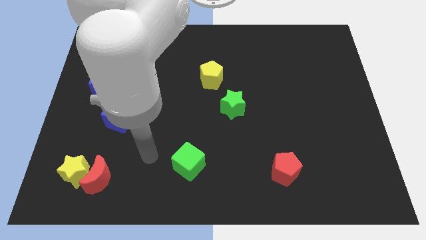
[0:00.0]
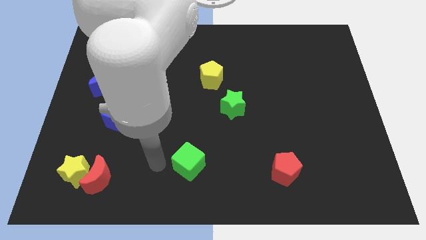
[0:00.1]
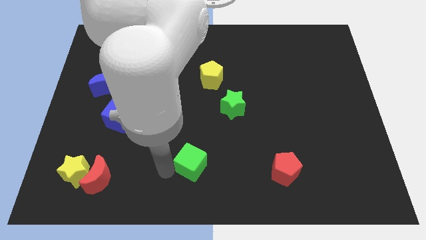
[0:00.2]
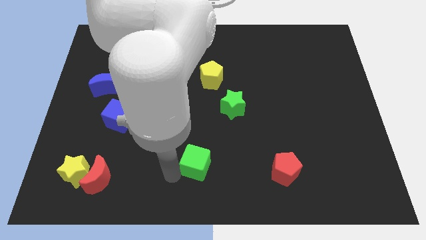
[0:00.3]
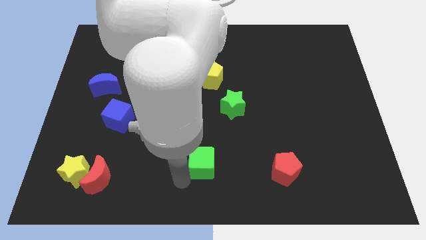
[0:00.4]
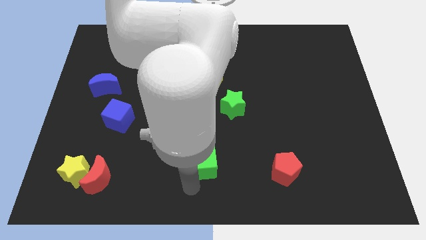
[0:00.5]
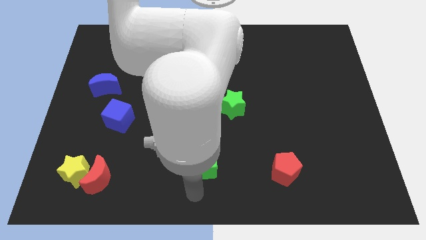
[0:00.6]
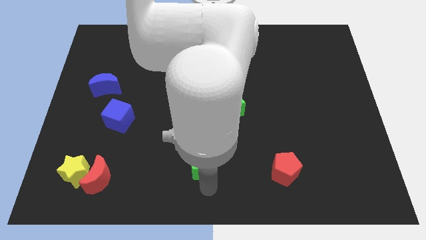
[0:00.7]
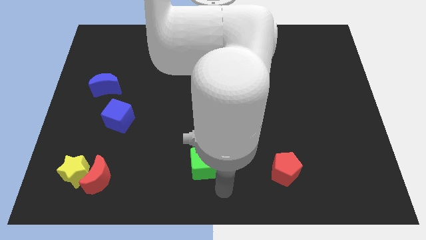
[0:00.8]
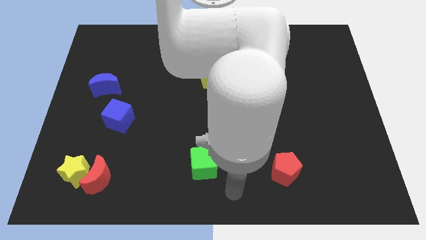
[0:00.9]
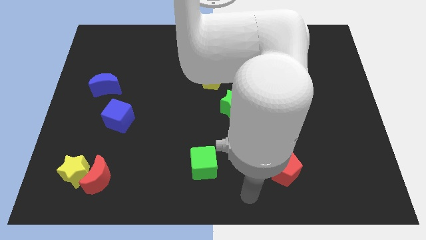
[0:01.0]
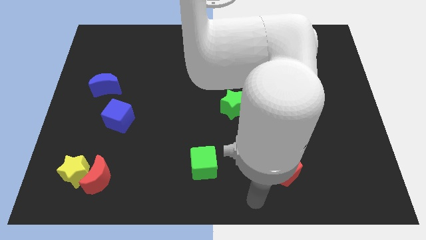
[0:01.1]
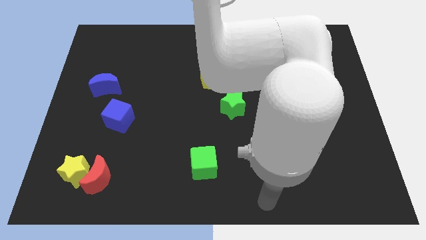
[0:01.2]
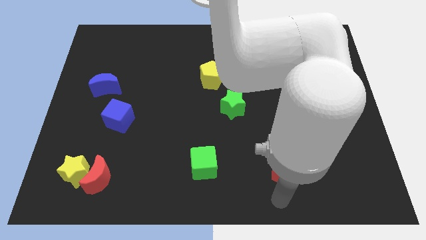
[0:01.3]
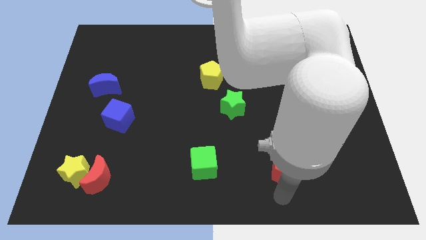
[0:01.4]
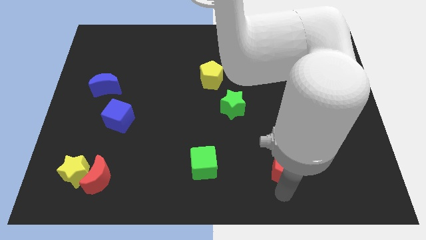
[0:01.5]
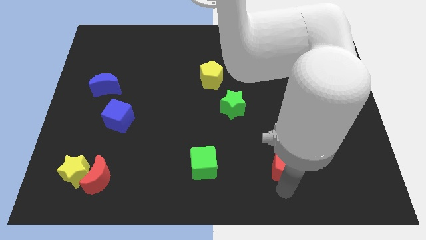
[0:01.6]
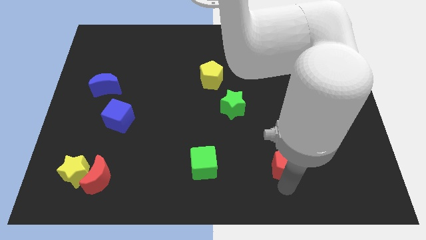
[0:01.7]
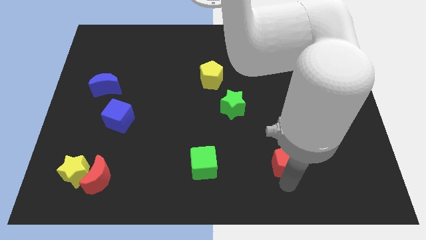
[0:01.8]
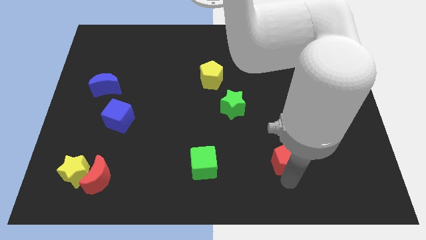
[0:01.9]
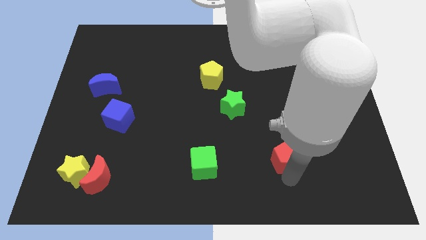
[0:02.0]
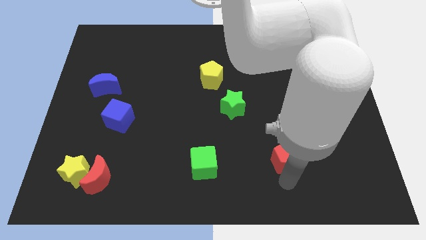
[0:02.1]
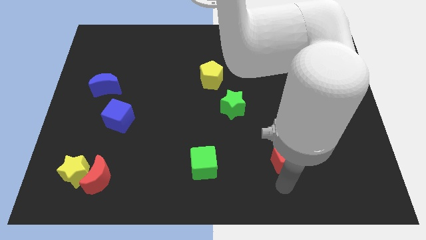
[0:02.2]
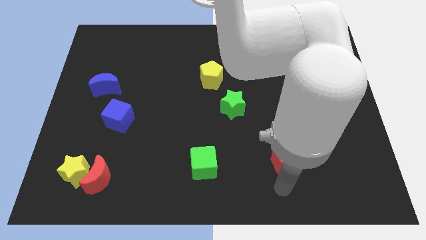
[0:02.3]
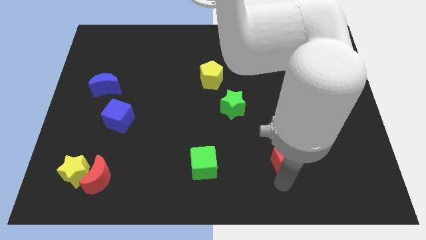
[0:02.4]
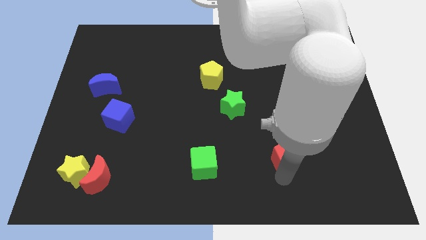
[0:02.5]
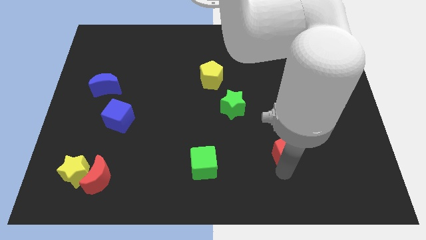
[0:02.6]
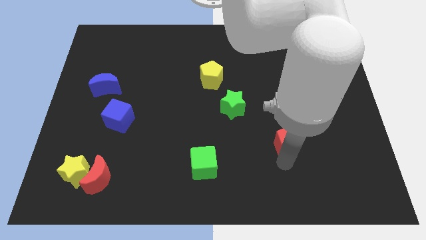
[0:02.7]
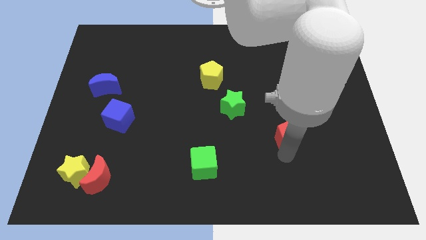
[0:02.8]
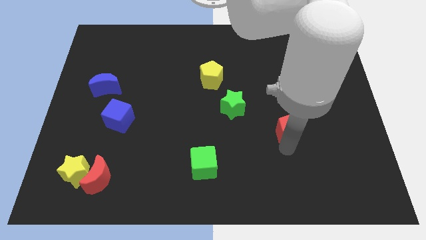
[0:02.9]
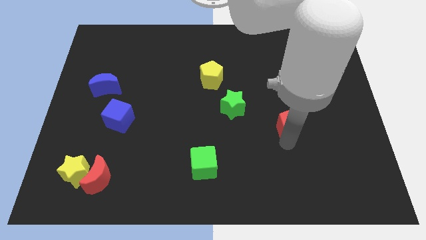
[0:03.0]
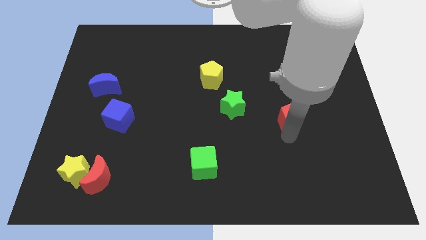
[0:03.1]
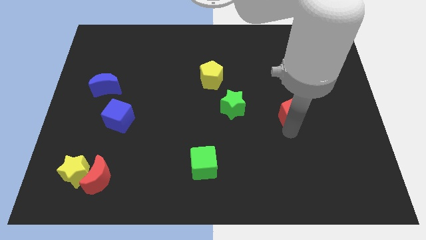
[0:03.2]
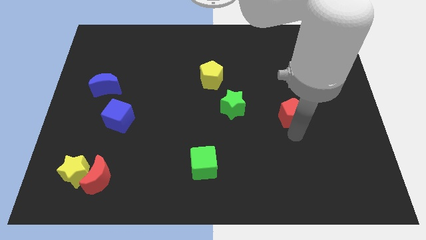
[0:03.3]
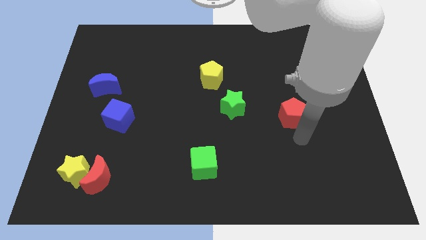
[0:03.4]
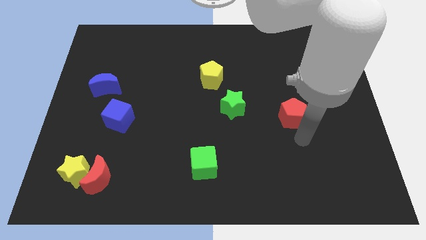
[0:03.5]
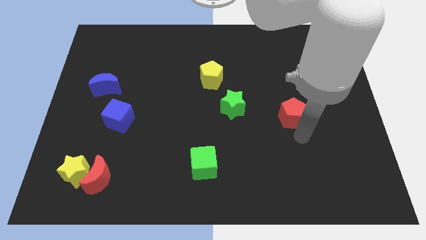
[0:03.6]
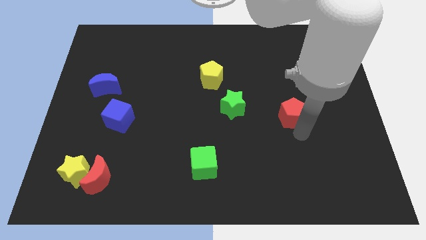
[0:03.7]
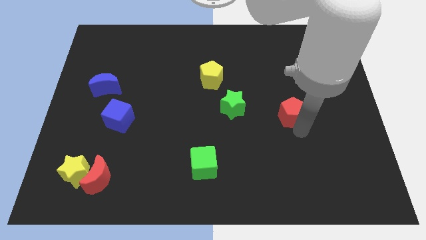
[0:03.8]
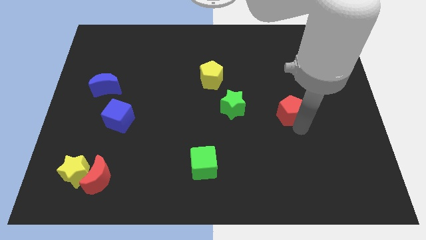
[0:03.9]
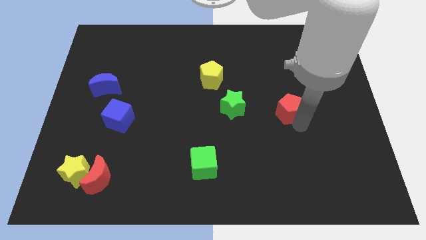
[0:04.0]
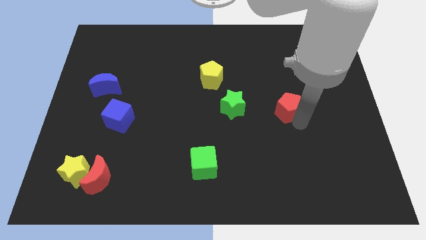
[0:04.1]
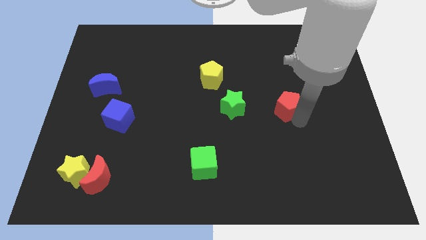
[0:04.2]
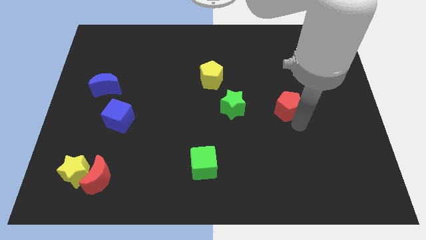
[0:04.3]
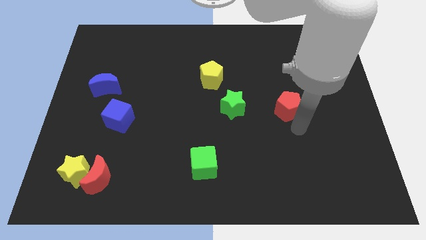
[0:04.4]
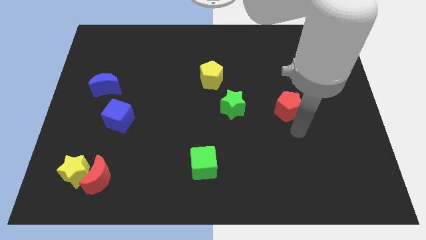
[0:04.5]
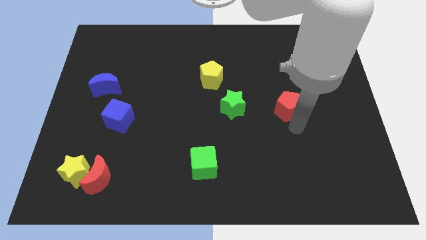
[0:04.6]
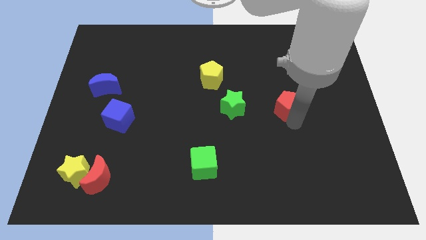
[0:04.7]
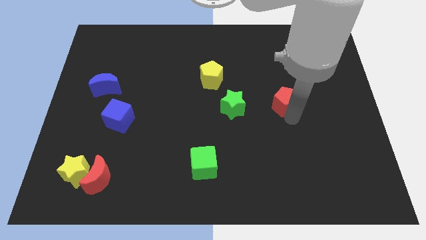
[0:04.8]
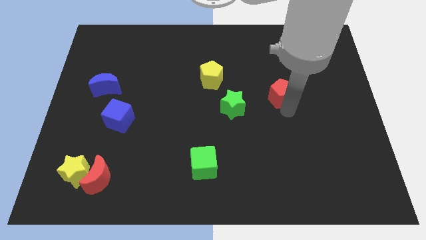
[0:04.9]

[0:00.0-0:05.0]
push the red pentagon upwards

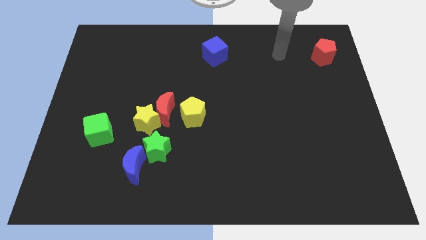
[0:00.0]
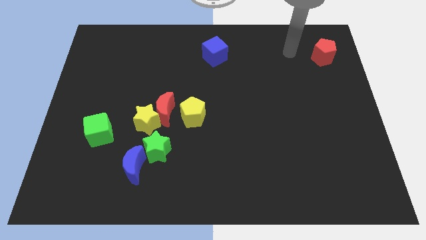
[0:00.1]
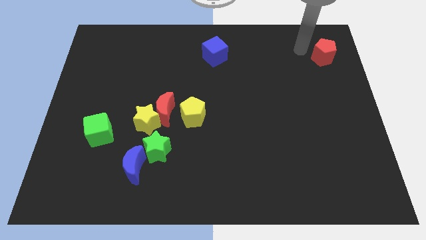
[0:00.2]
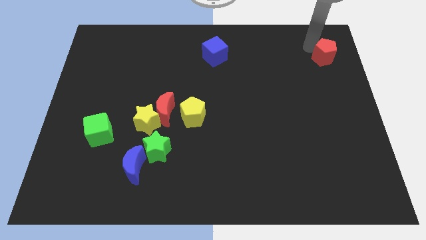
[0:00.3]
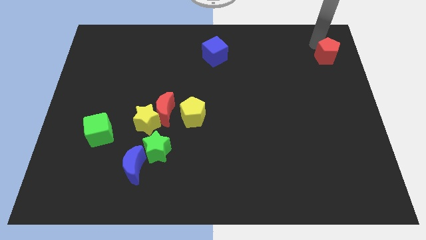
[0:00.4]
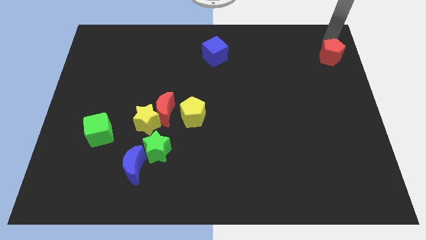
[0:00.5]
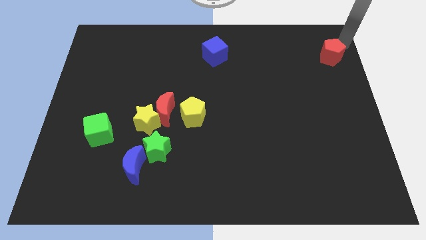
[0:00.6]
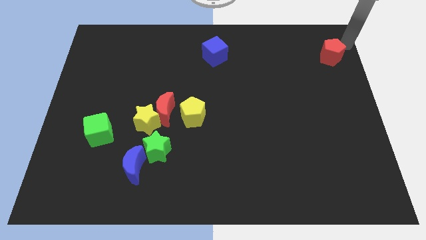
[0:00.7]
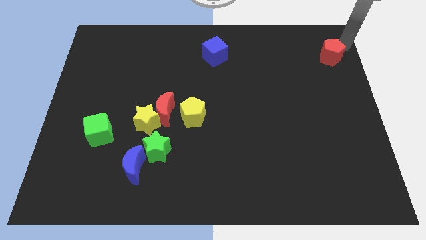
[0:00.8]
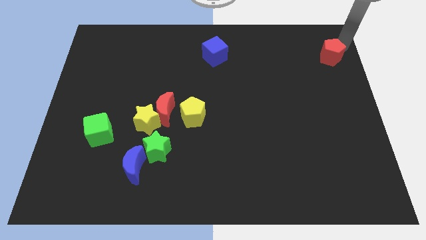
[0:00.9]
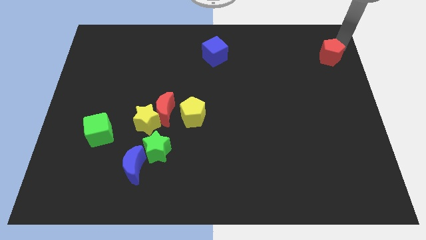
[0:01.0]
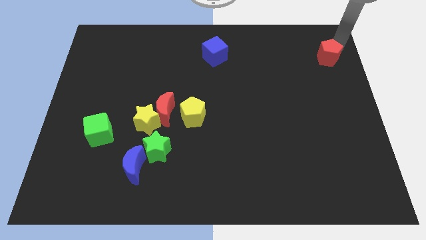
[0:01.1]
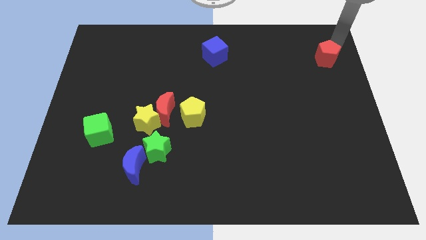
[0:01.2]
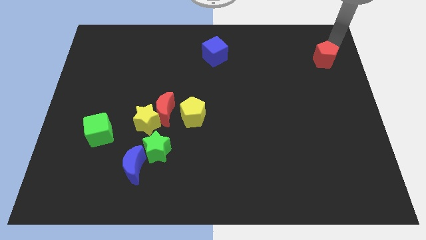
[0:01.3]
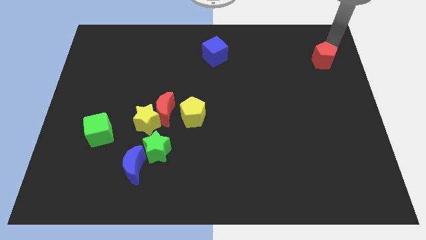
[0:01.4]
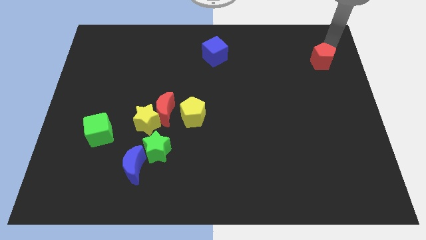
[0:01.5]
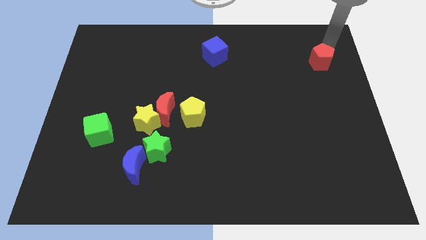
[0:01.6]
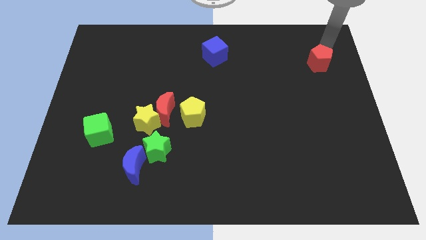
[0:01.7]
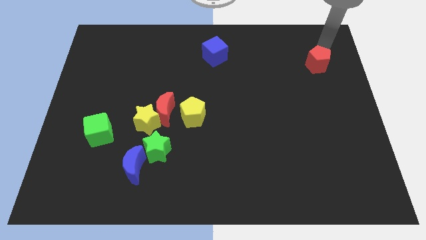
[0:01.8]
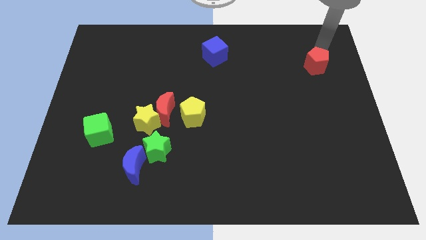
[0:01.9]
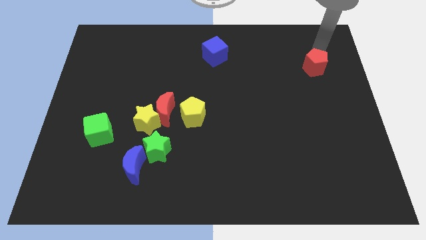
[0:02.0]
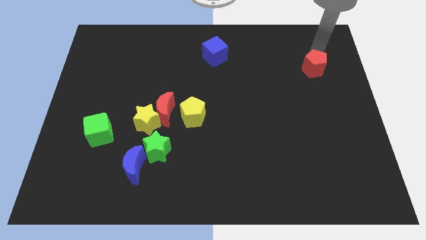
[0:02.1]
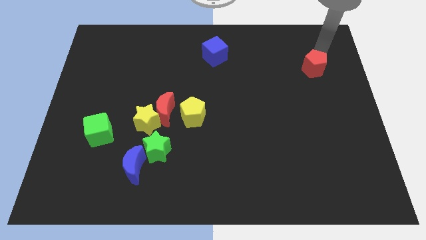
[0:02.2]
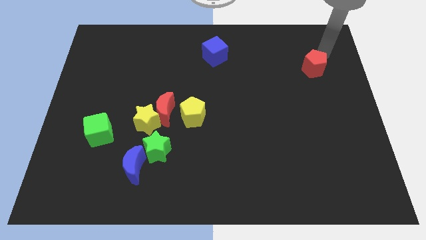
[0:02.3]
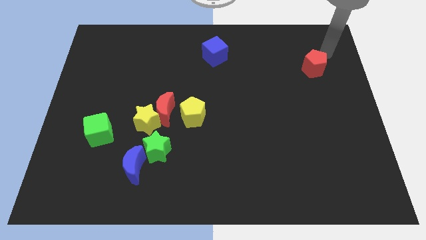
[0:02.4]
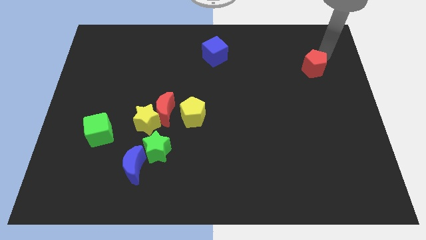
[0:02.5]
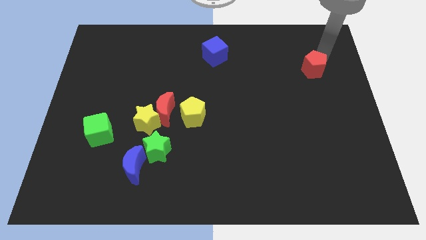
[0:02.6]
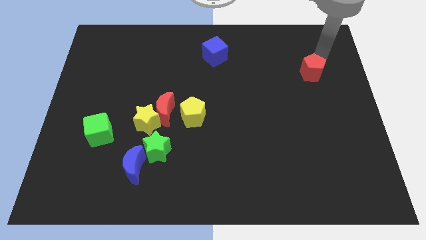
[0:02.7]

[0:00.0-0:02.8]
slightly slide the red pentagon diagonally down and to the left
